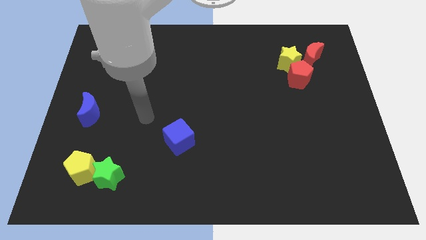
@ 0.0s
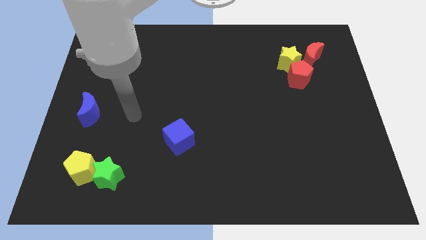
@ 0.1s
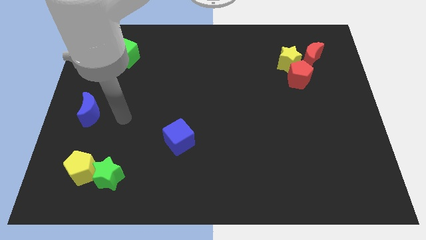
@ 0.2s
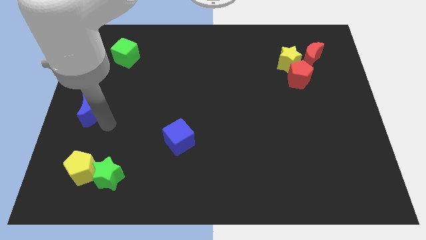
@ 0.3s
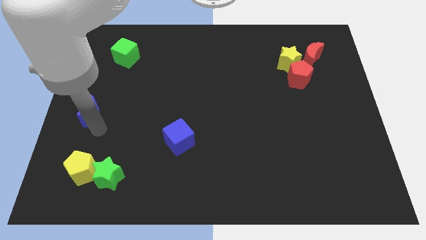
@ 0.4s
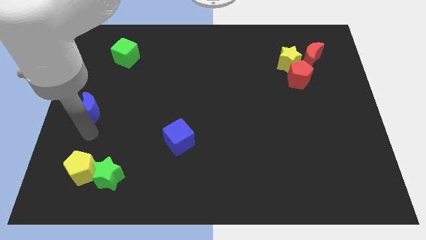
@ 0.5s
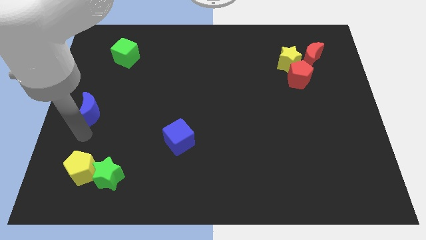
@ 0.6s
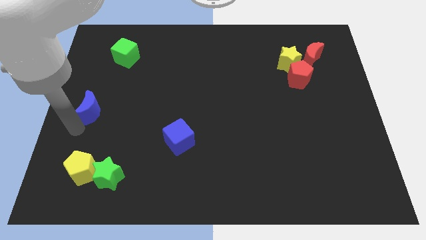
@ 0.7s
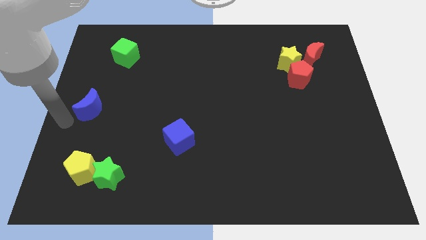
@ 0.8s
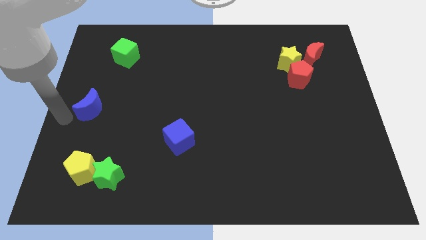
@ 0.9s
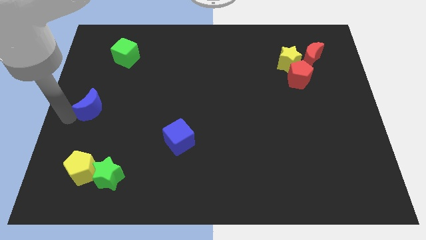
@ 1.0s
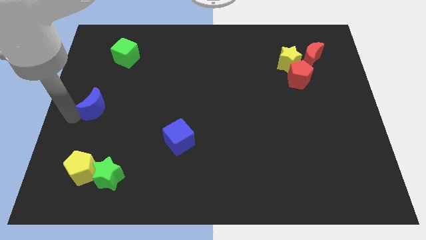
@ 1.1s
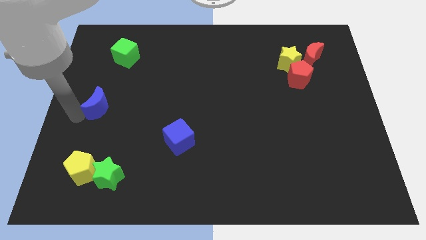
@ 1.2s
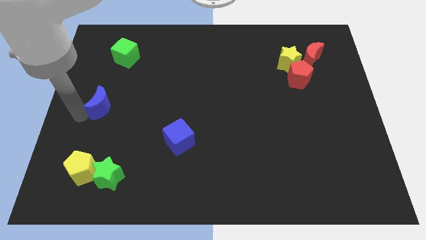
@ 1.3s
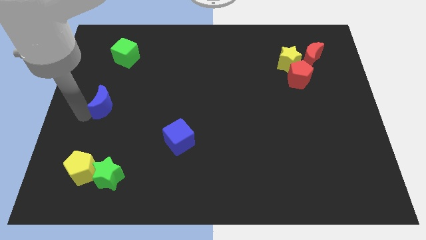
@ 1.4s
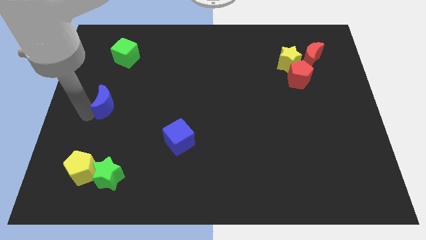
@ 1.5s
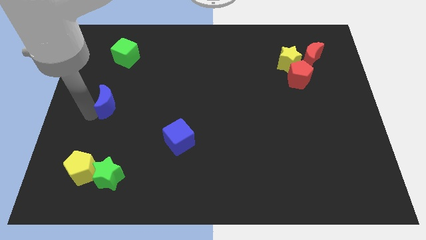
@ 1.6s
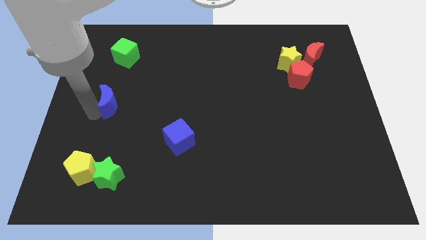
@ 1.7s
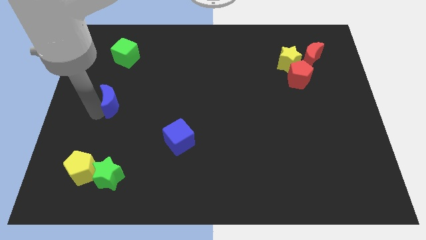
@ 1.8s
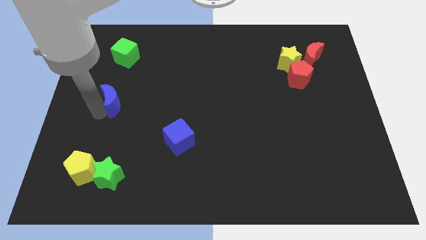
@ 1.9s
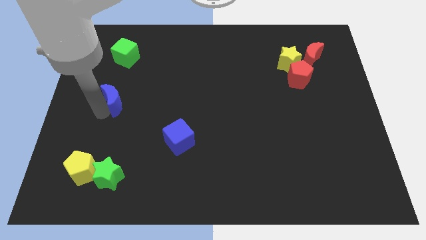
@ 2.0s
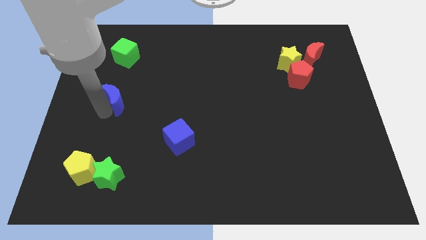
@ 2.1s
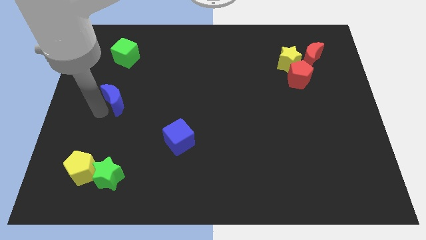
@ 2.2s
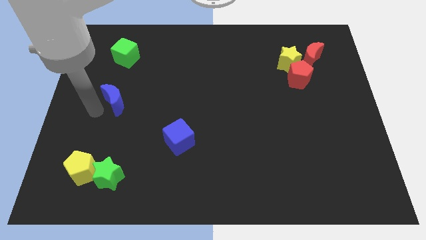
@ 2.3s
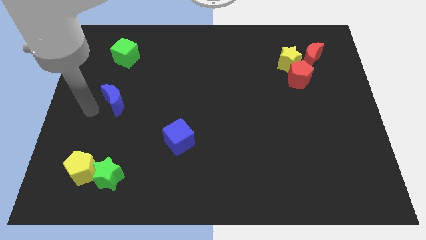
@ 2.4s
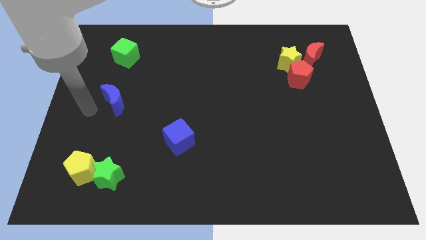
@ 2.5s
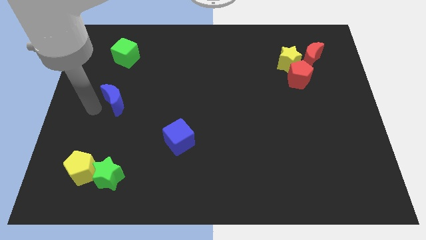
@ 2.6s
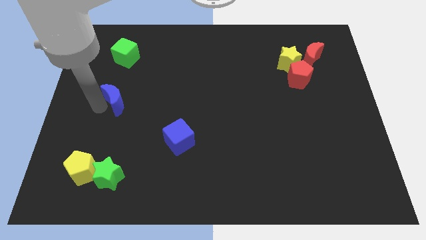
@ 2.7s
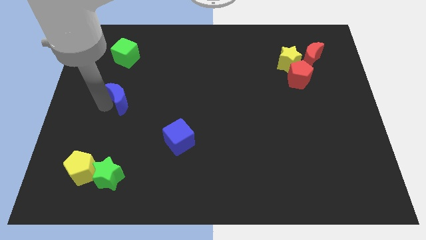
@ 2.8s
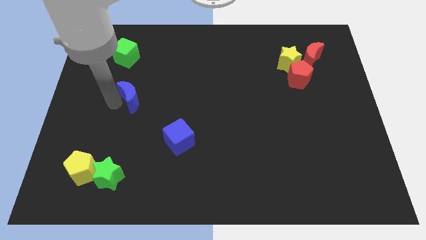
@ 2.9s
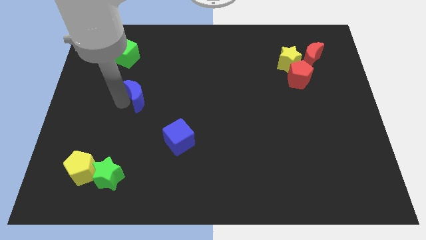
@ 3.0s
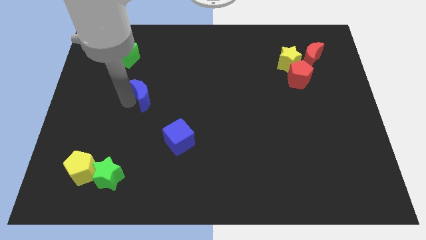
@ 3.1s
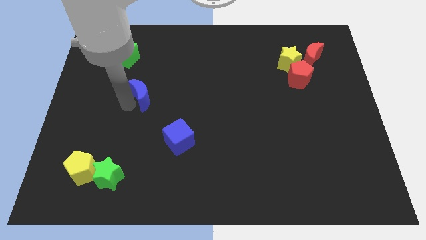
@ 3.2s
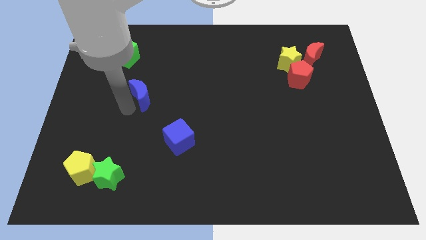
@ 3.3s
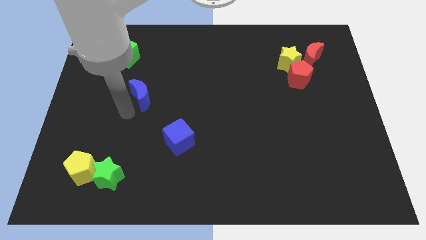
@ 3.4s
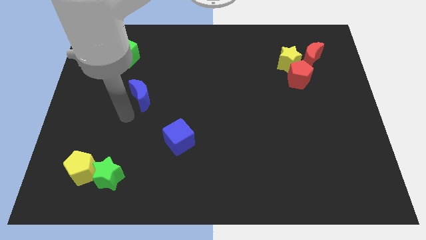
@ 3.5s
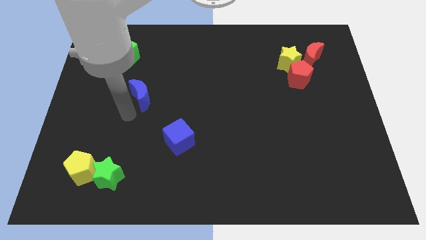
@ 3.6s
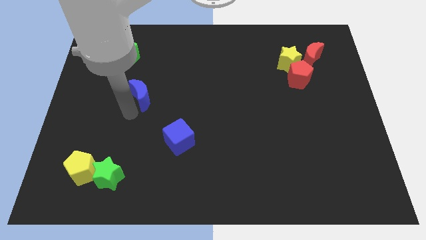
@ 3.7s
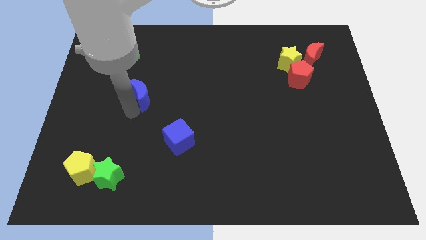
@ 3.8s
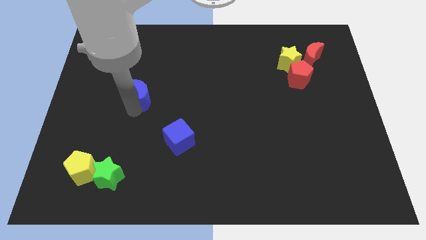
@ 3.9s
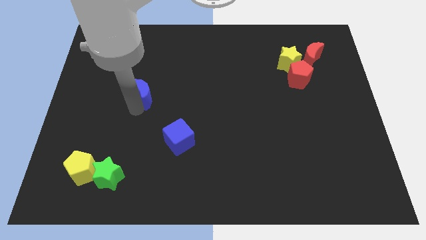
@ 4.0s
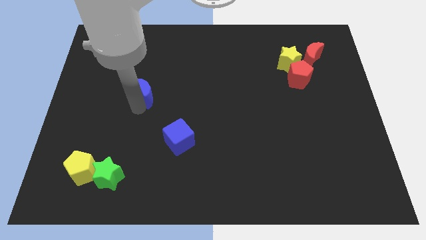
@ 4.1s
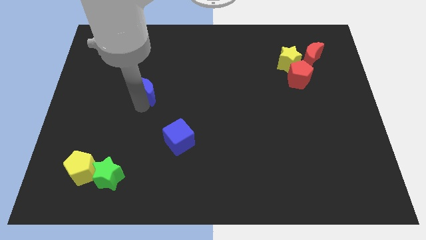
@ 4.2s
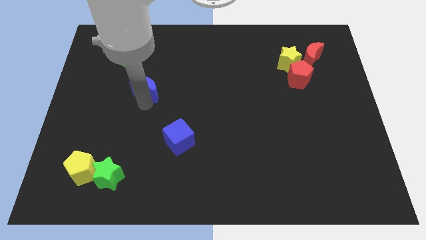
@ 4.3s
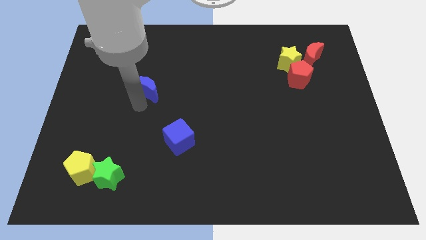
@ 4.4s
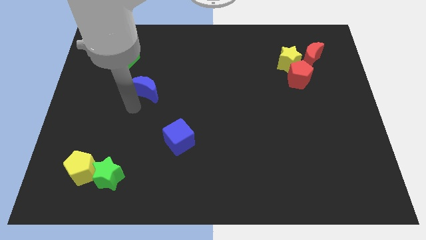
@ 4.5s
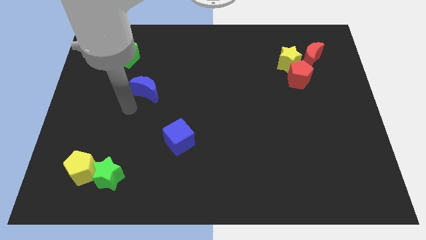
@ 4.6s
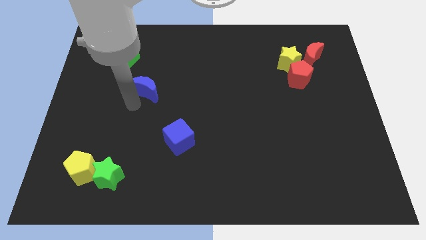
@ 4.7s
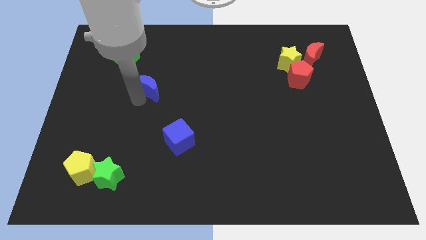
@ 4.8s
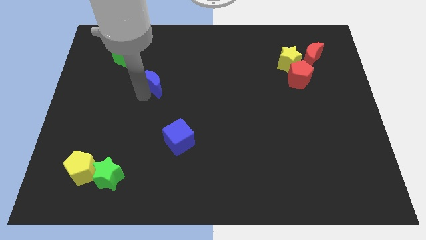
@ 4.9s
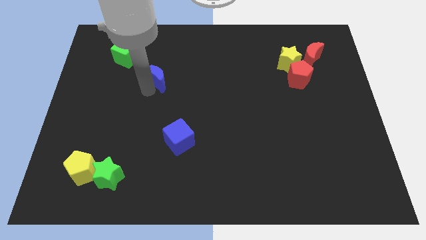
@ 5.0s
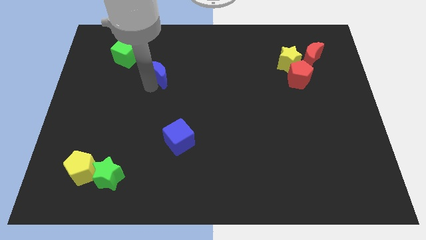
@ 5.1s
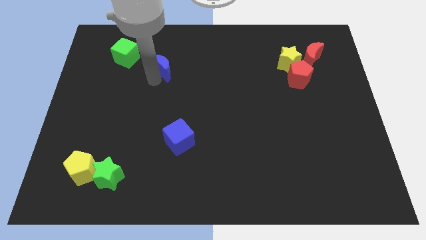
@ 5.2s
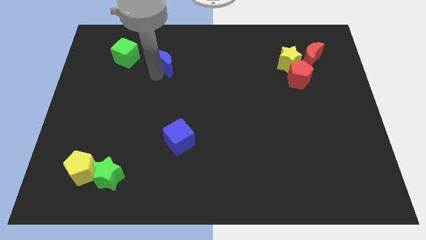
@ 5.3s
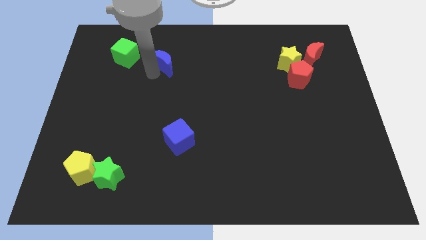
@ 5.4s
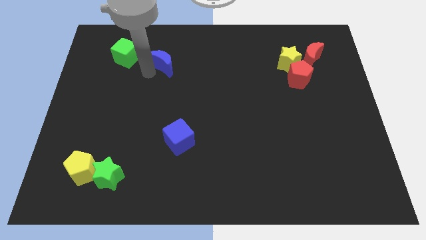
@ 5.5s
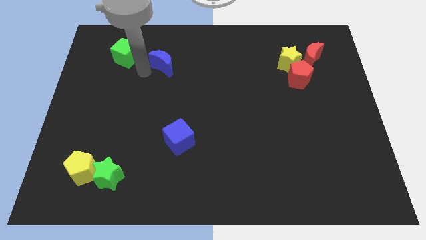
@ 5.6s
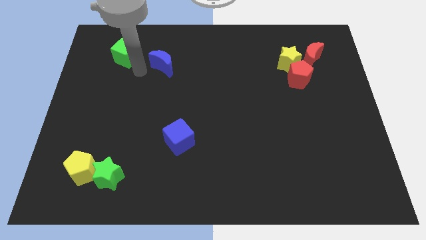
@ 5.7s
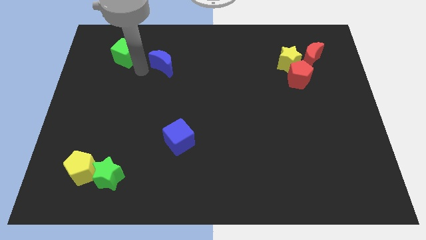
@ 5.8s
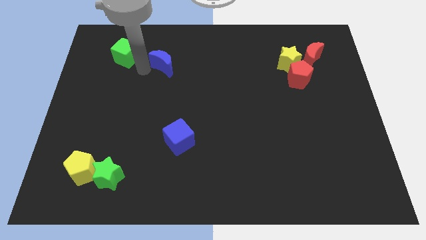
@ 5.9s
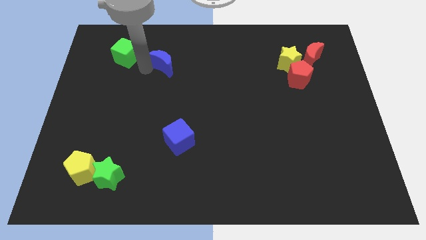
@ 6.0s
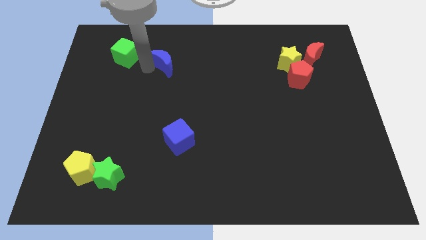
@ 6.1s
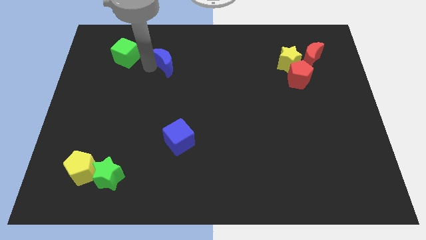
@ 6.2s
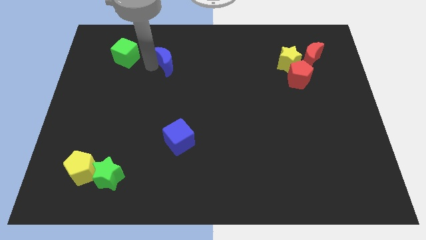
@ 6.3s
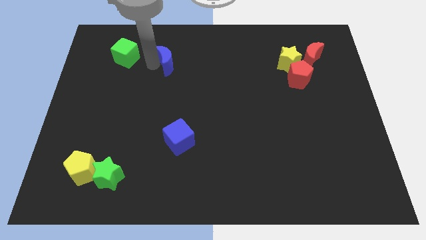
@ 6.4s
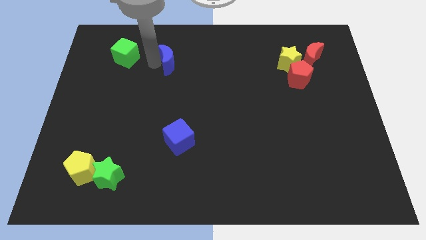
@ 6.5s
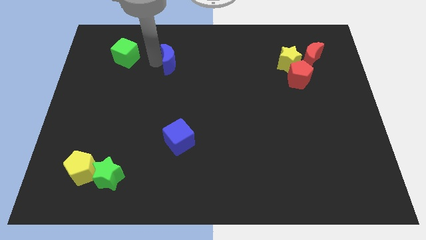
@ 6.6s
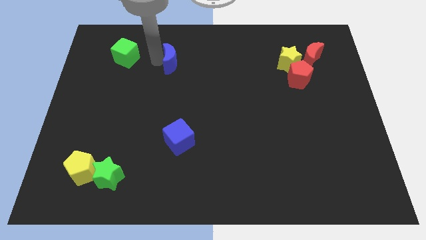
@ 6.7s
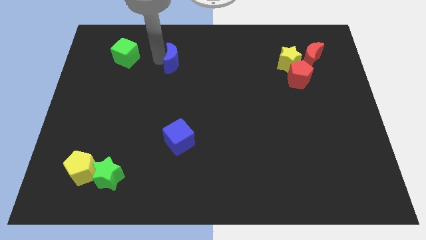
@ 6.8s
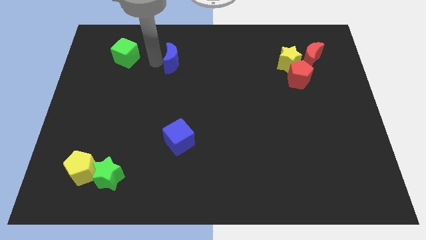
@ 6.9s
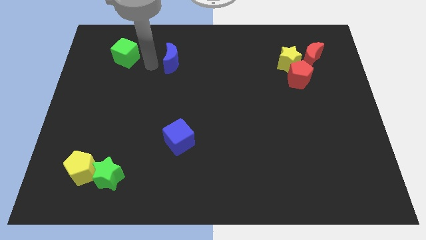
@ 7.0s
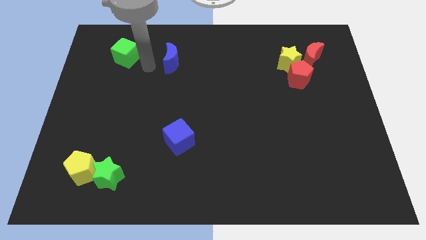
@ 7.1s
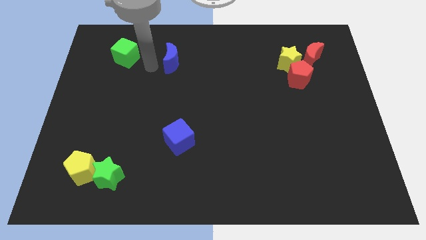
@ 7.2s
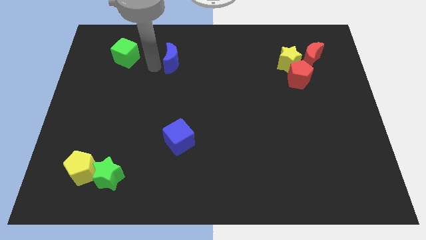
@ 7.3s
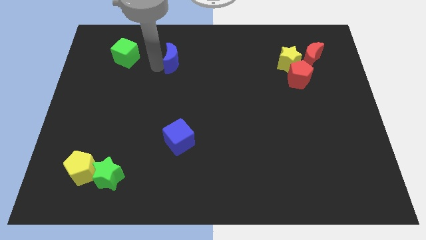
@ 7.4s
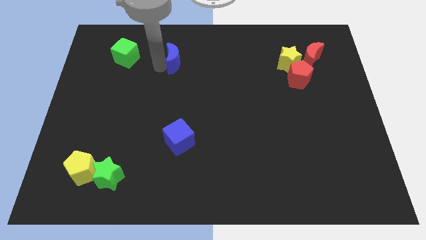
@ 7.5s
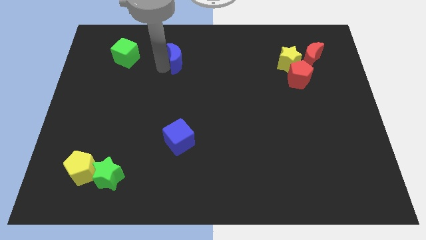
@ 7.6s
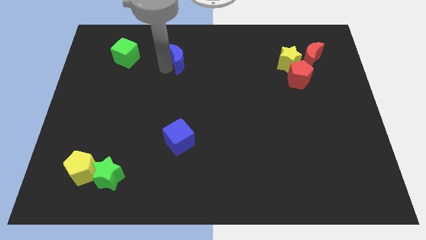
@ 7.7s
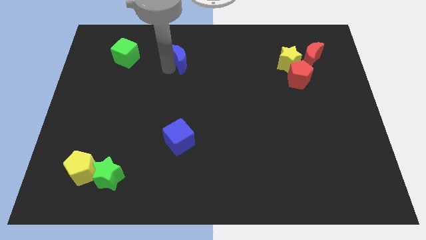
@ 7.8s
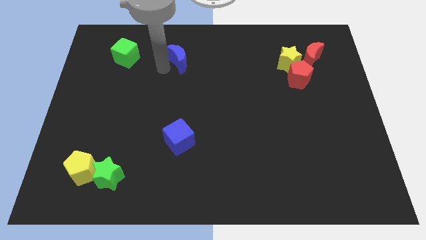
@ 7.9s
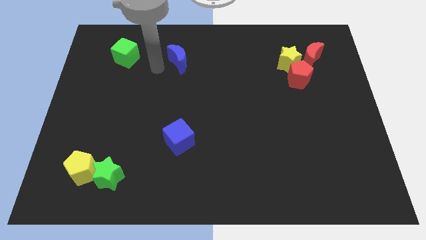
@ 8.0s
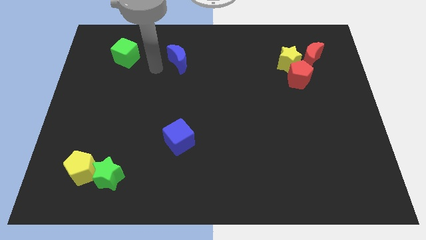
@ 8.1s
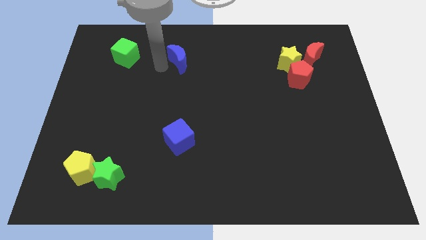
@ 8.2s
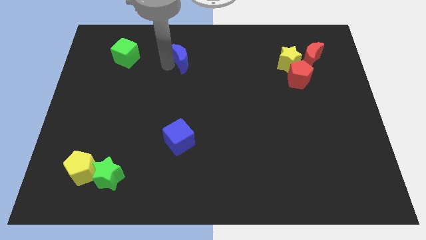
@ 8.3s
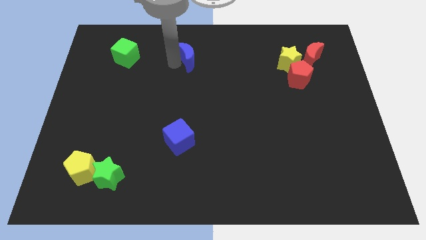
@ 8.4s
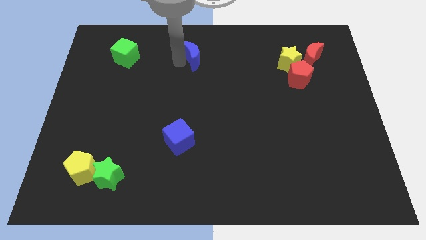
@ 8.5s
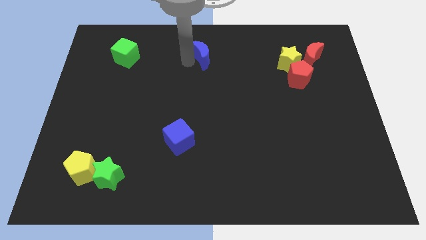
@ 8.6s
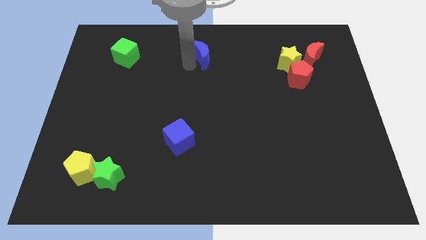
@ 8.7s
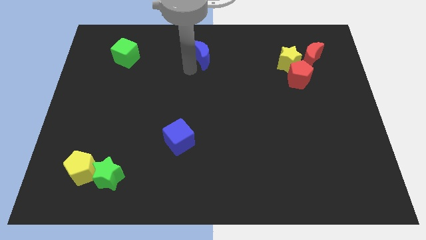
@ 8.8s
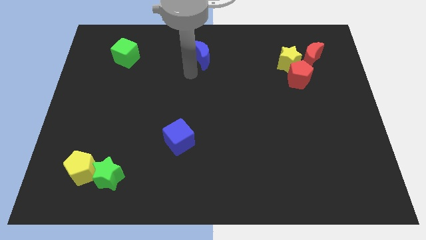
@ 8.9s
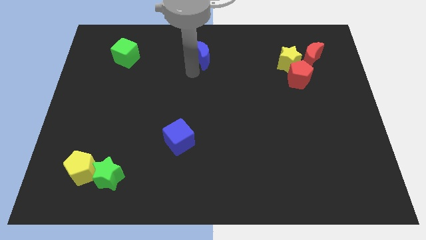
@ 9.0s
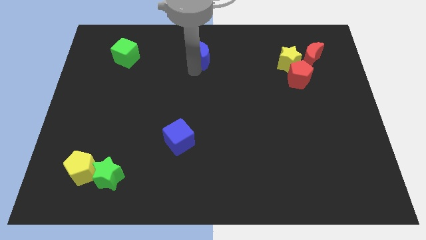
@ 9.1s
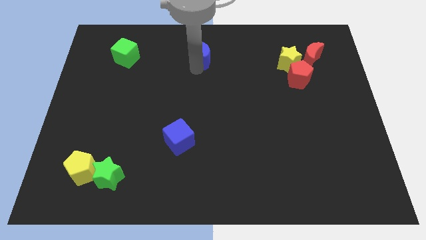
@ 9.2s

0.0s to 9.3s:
put the blue moon to the top side
